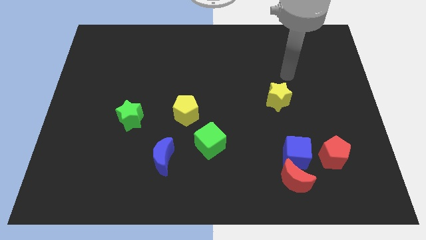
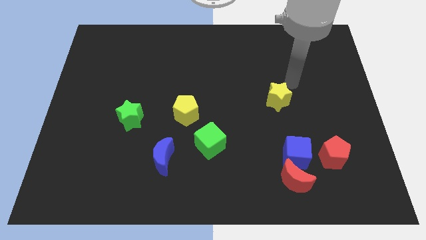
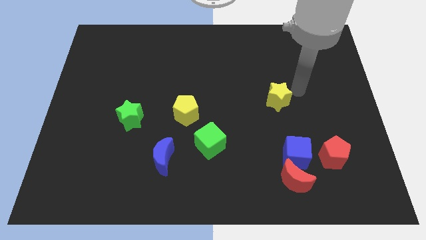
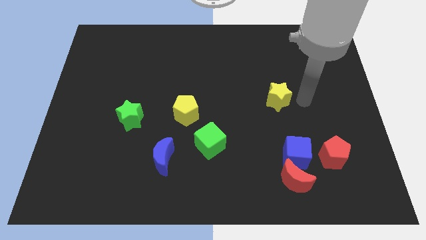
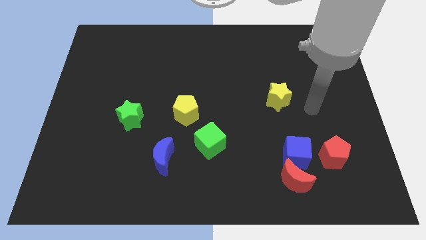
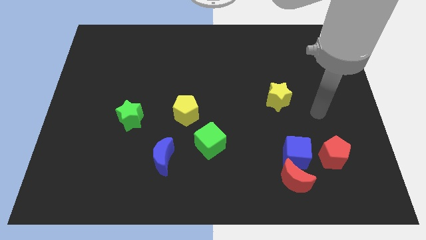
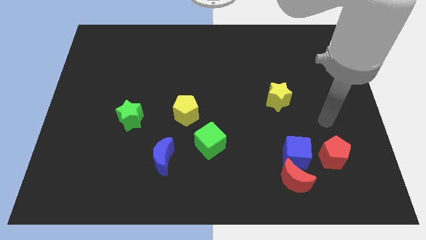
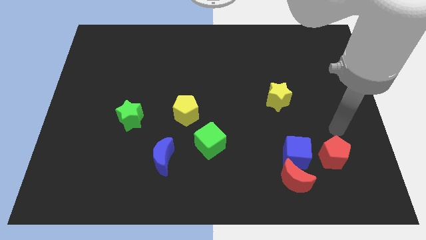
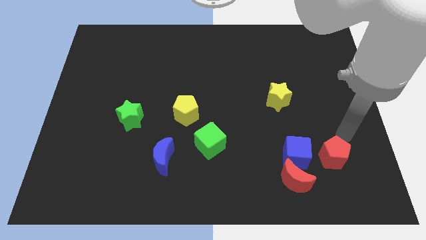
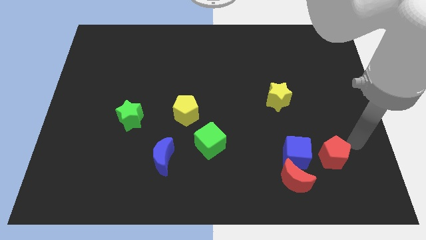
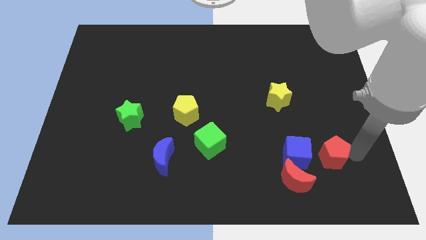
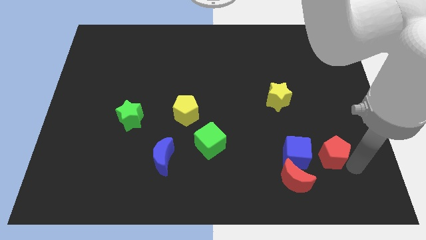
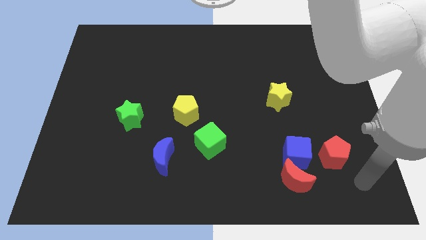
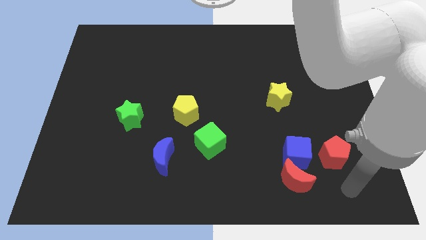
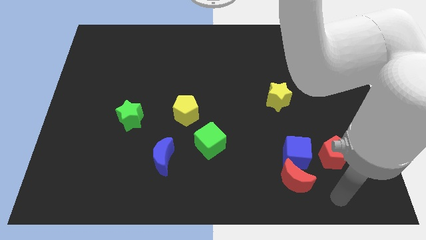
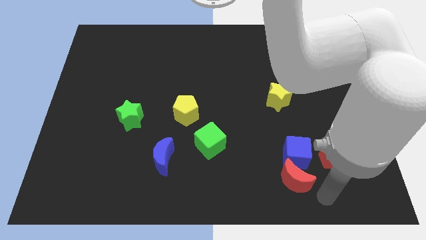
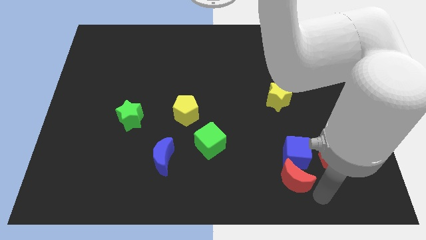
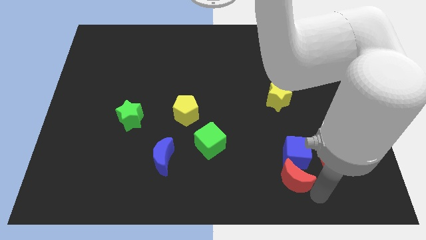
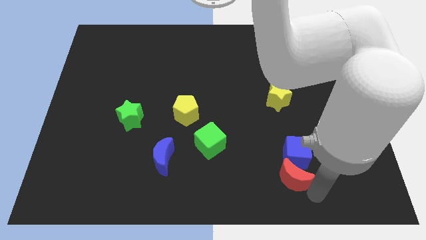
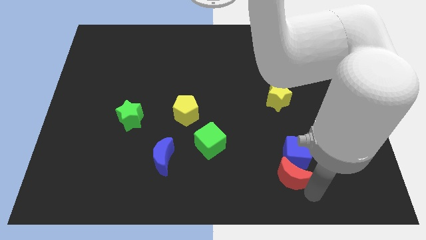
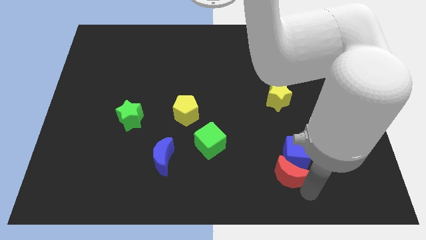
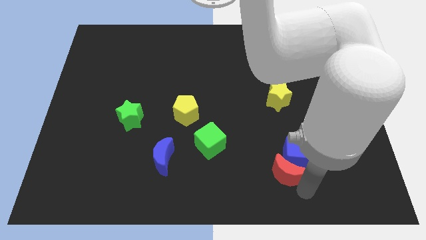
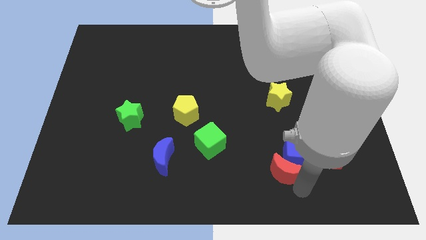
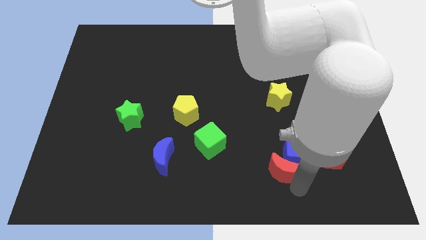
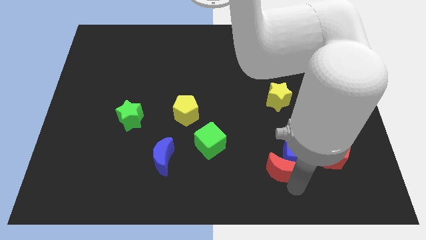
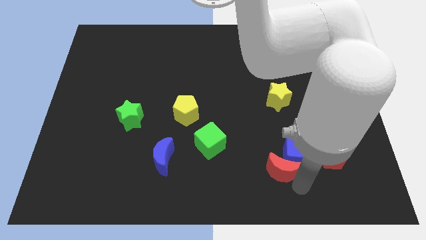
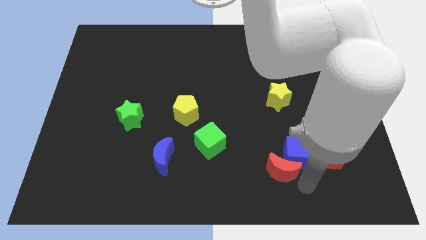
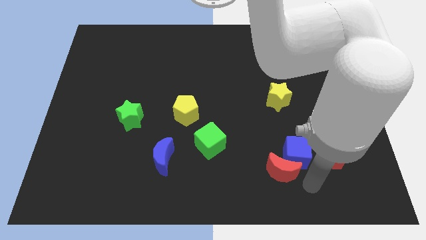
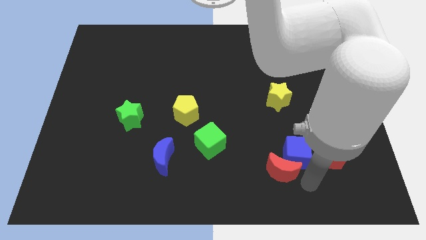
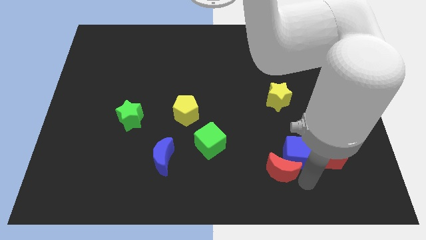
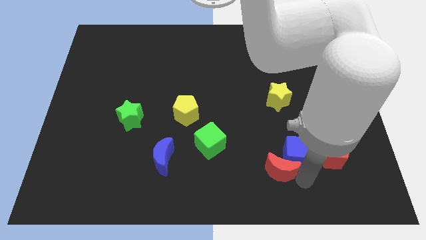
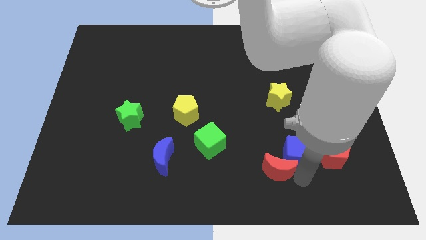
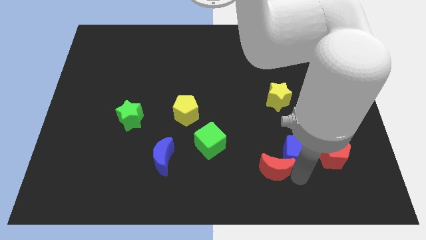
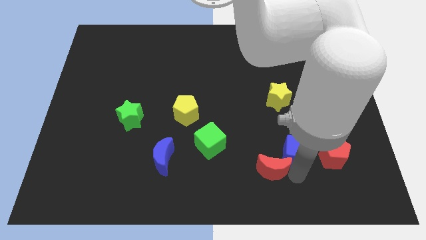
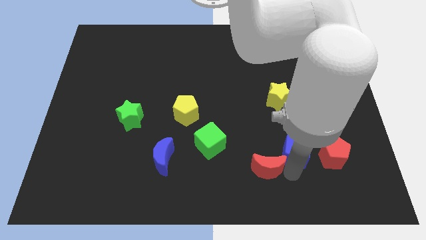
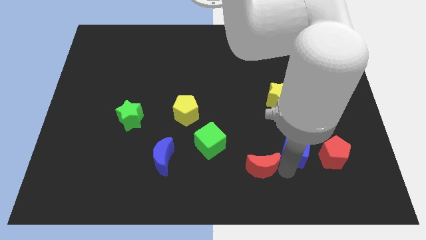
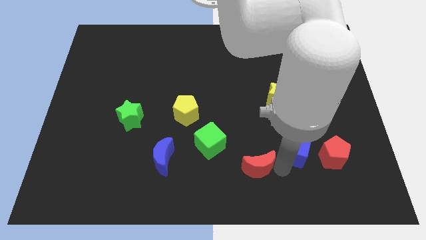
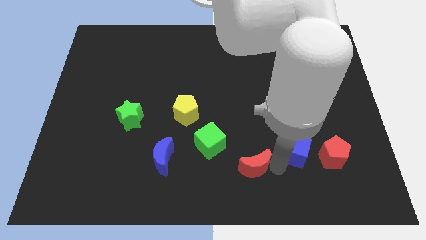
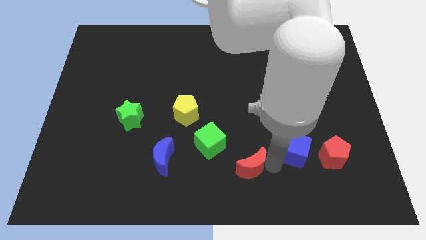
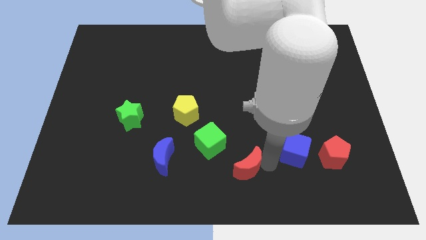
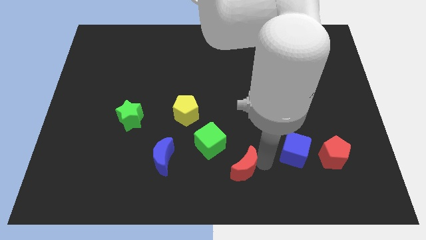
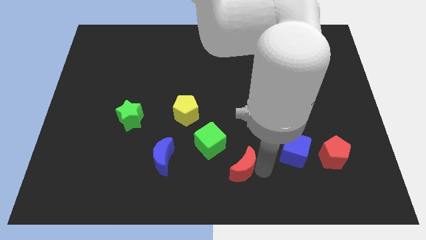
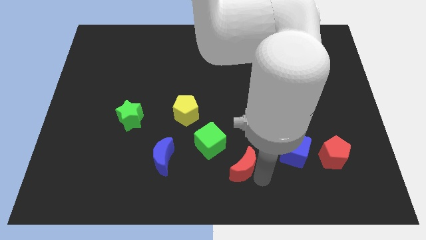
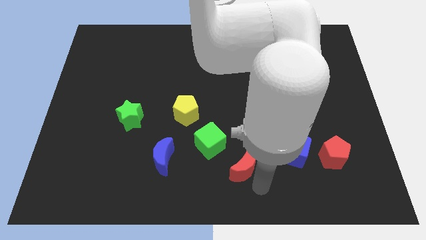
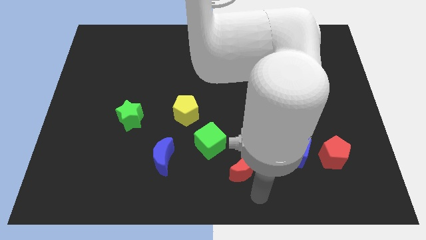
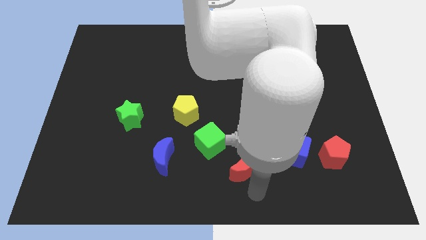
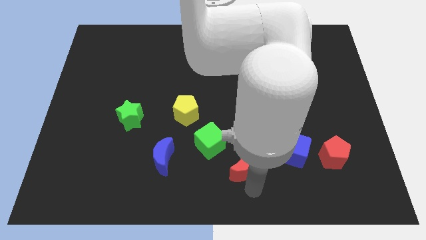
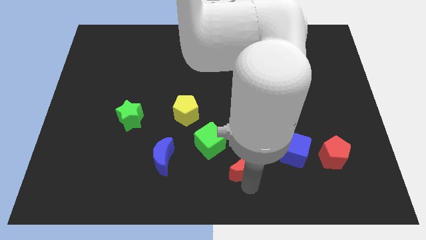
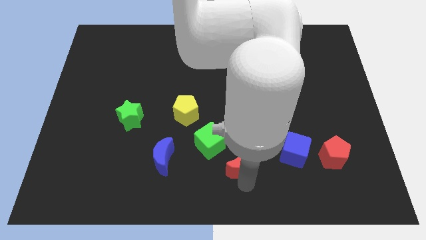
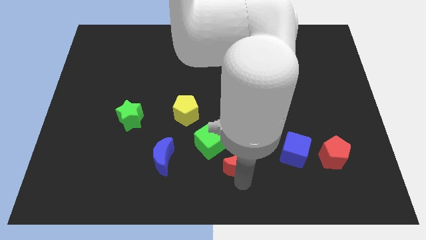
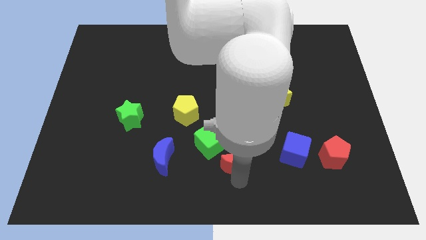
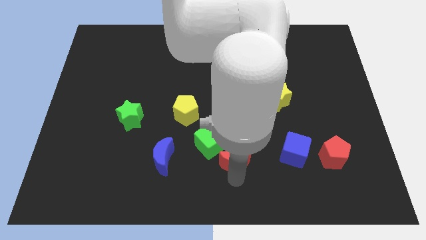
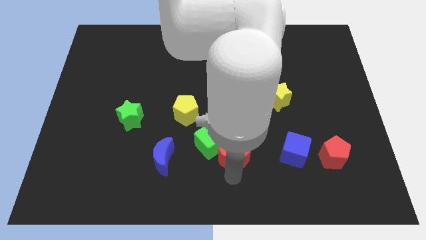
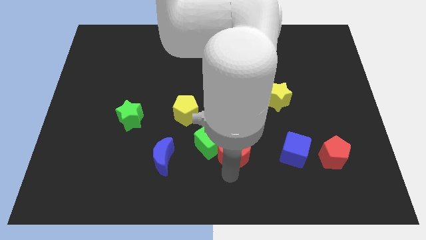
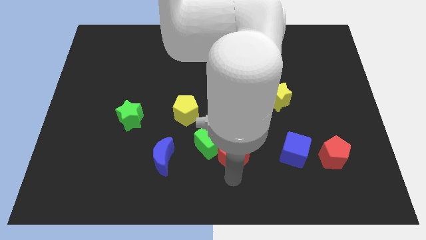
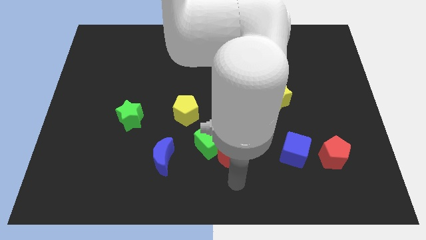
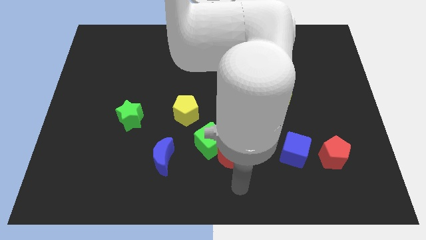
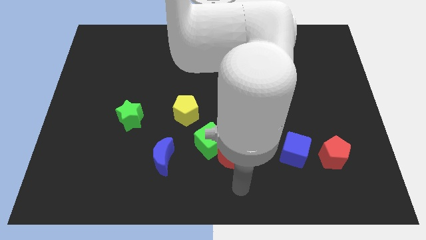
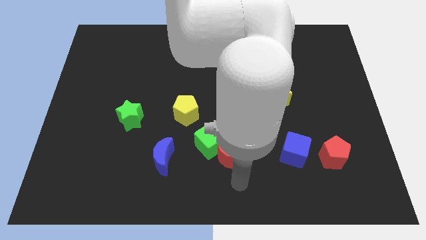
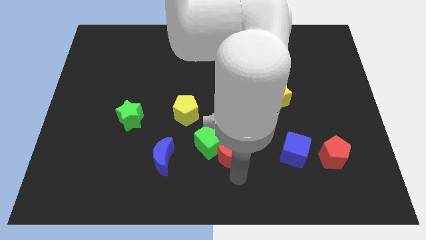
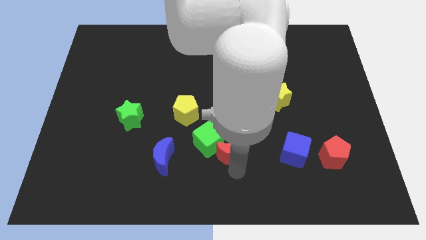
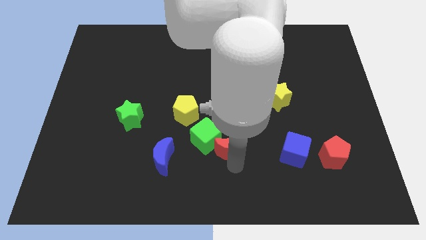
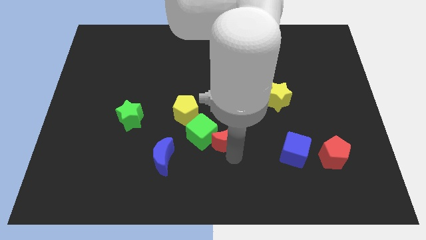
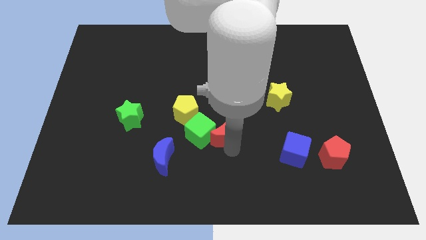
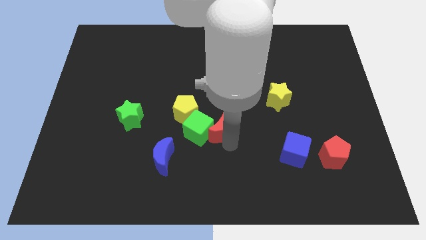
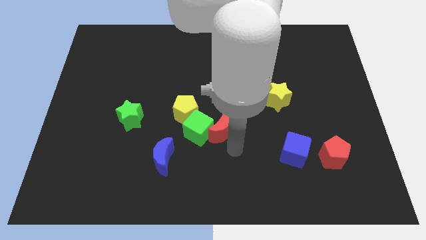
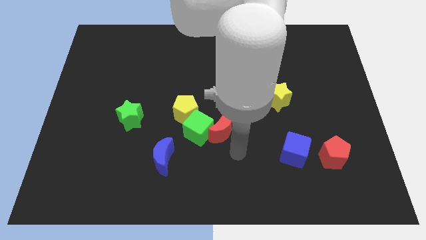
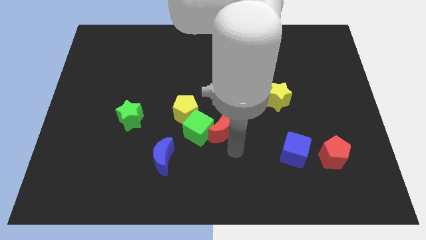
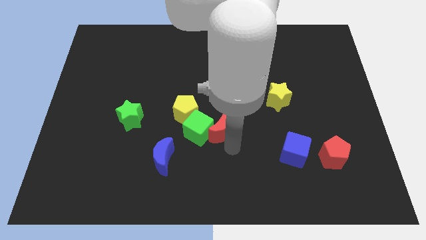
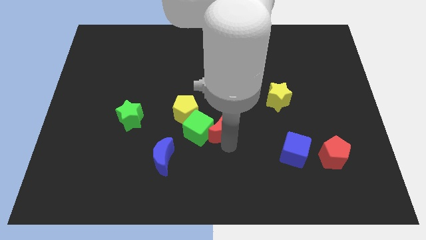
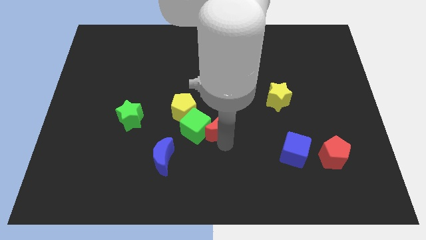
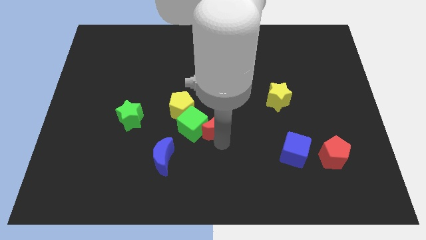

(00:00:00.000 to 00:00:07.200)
slide the red moon up and to the left

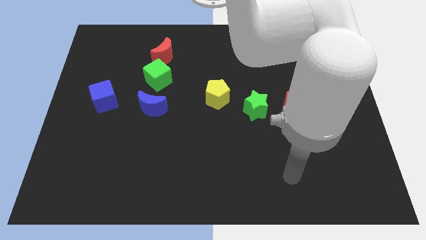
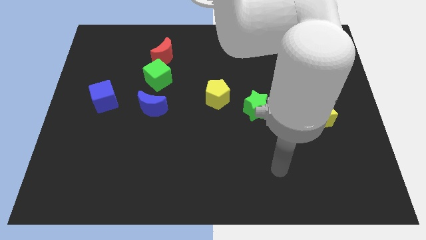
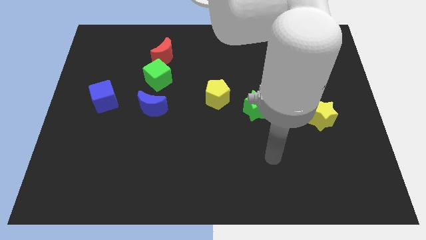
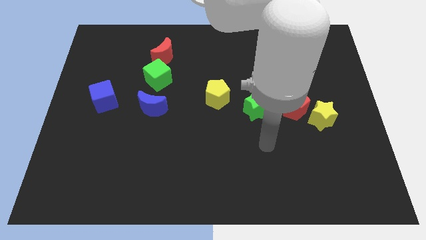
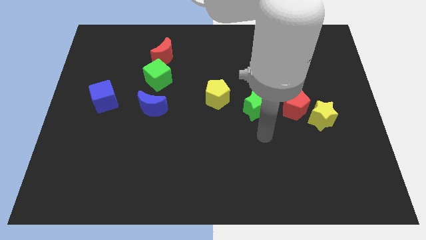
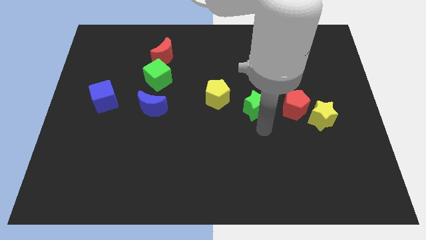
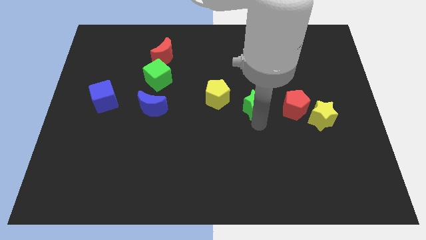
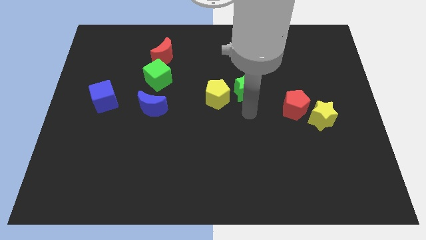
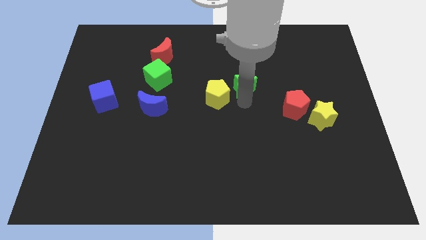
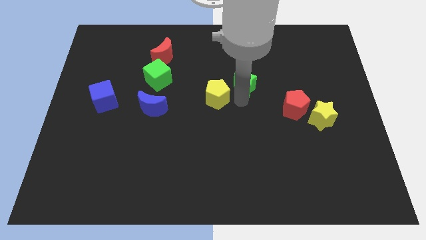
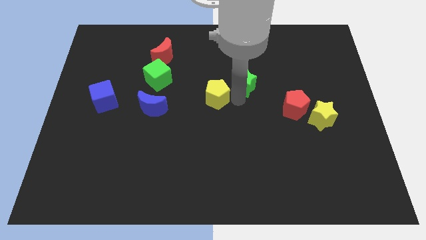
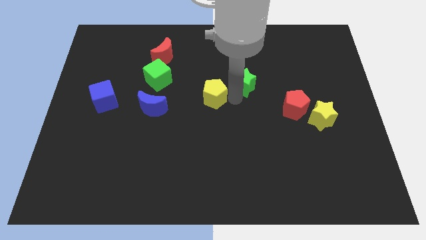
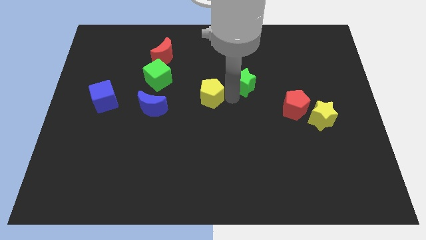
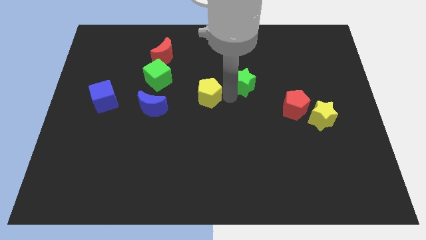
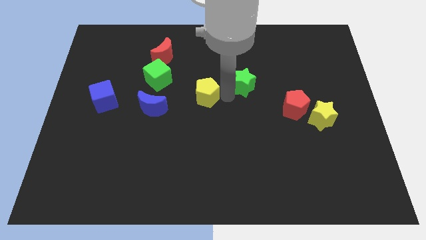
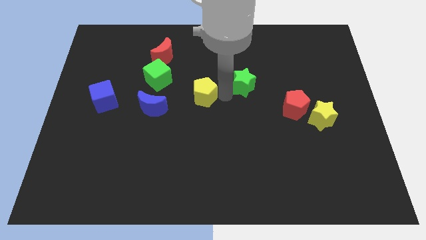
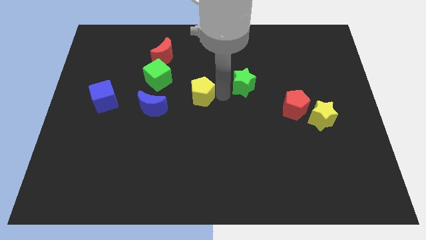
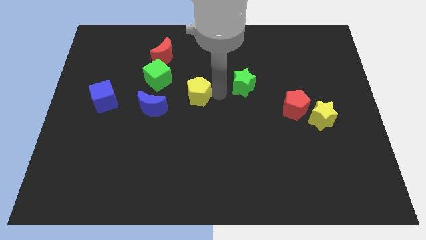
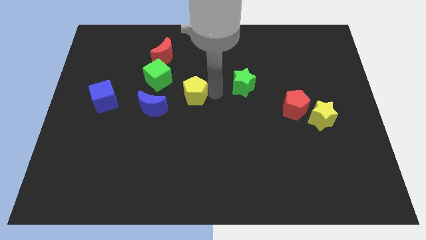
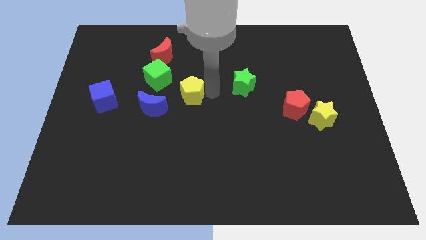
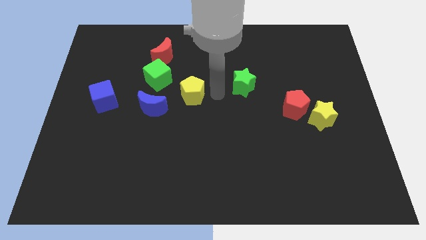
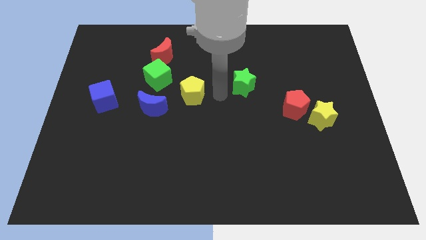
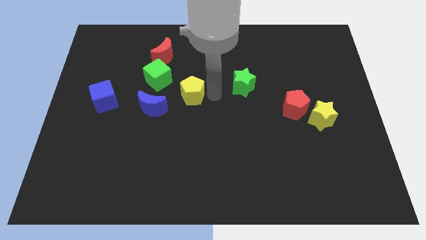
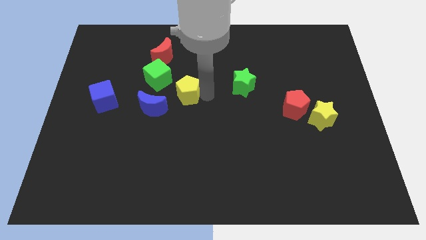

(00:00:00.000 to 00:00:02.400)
slide the yellow pentagon left slightly
